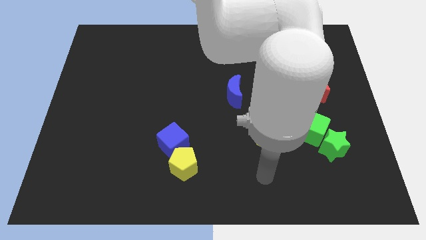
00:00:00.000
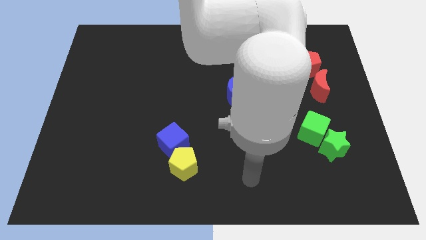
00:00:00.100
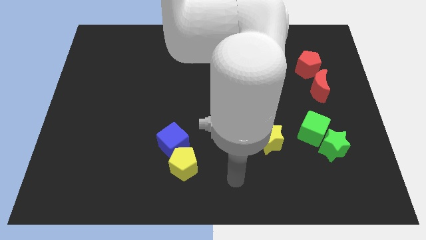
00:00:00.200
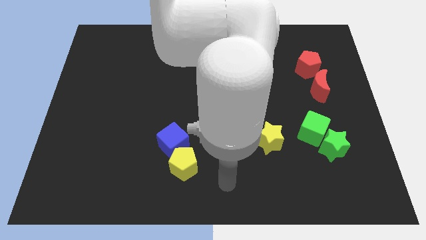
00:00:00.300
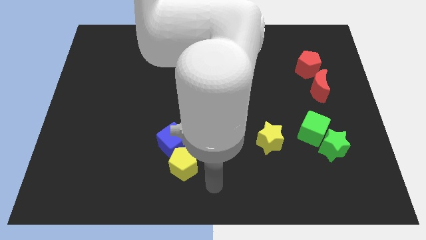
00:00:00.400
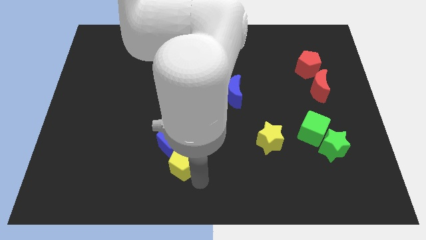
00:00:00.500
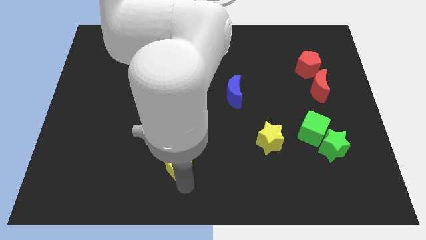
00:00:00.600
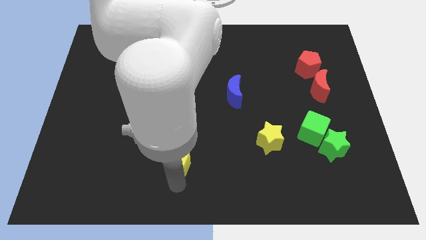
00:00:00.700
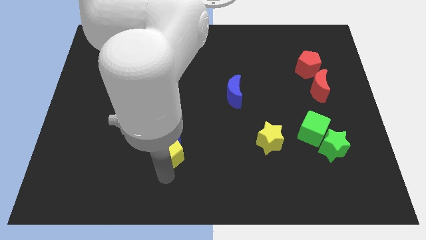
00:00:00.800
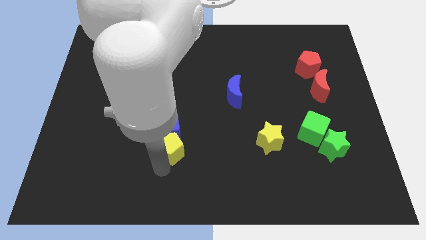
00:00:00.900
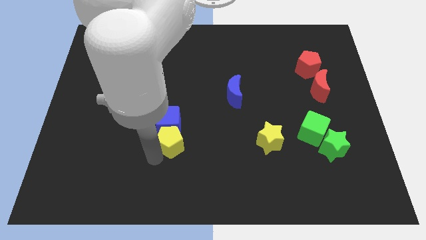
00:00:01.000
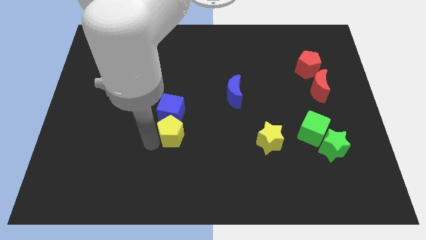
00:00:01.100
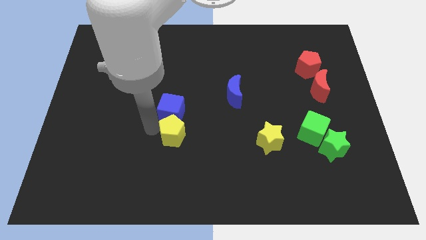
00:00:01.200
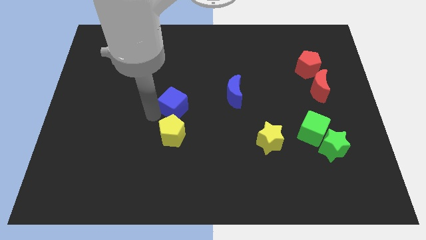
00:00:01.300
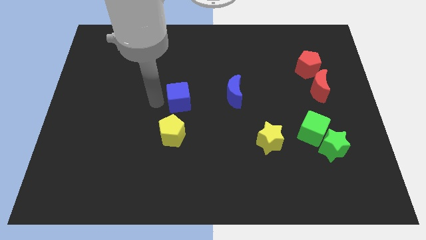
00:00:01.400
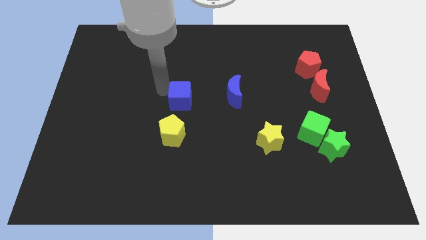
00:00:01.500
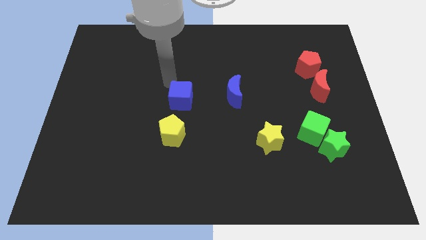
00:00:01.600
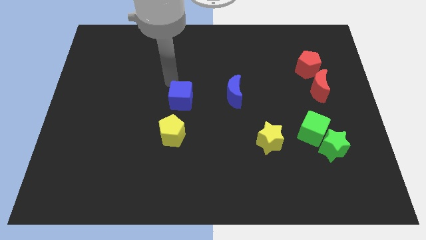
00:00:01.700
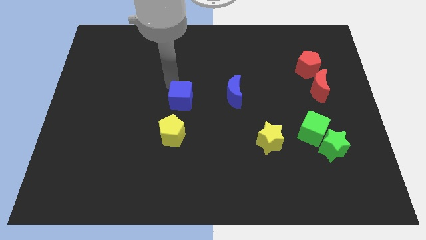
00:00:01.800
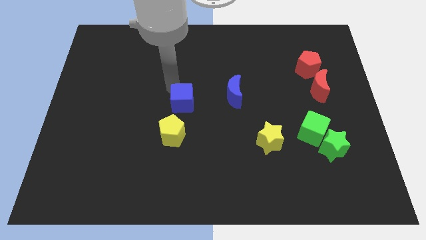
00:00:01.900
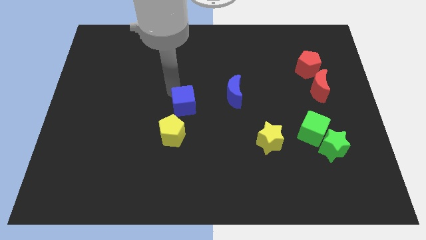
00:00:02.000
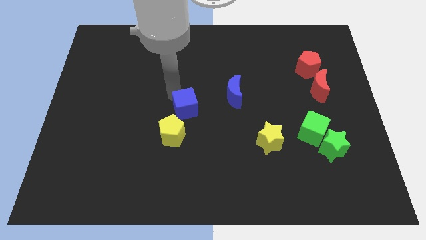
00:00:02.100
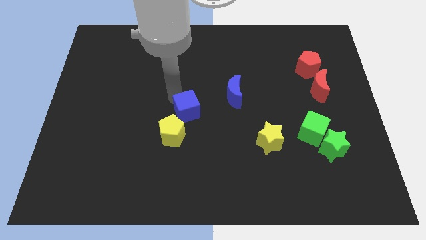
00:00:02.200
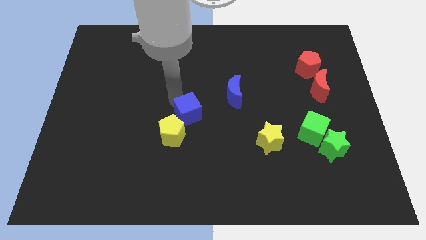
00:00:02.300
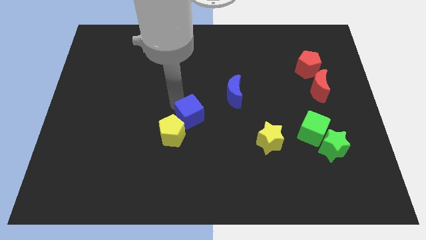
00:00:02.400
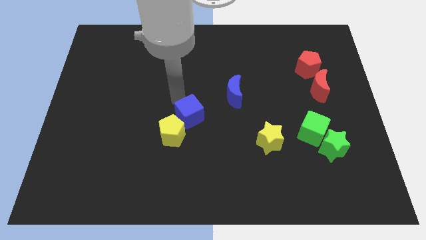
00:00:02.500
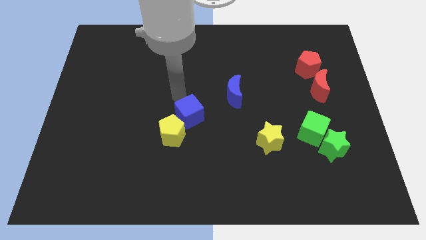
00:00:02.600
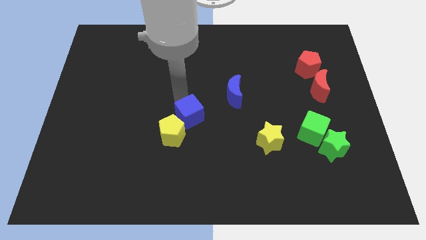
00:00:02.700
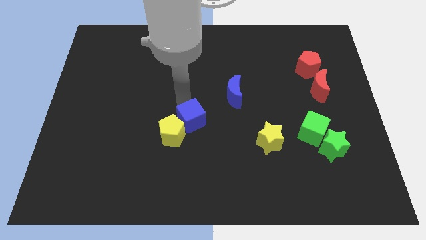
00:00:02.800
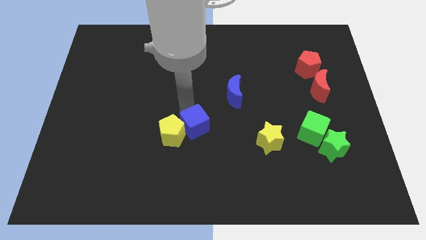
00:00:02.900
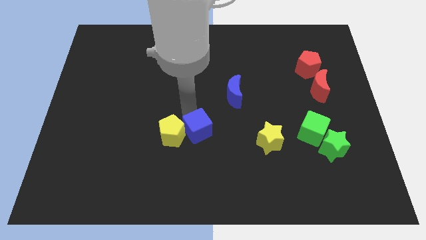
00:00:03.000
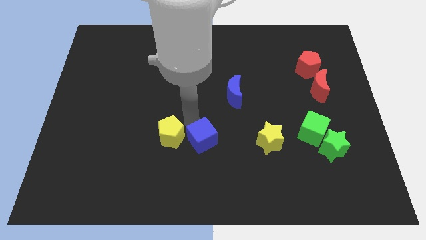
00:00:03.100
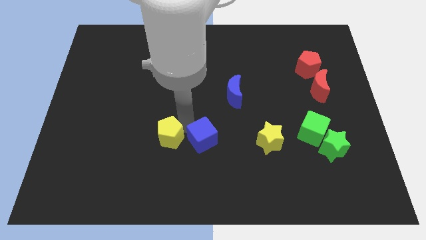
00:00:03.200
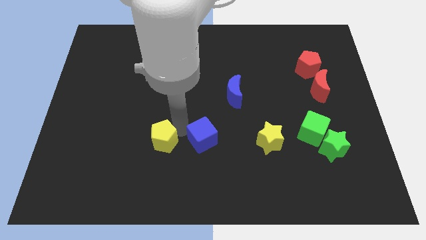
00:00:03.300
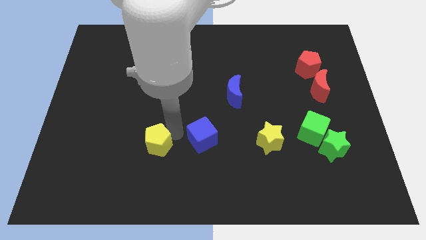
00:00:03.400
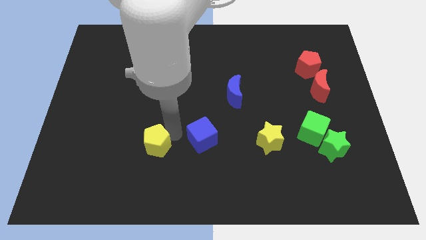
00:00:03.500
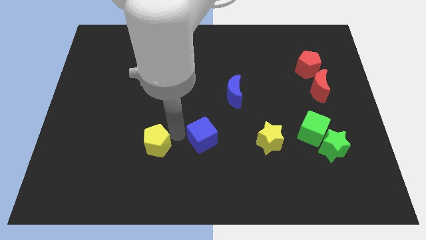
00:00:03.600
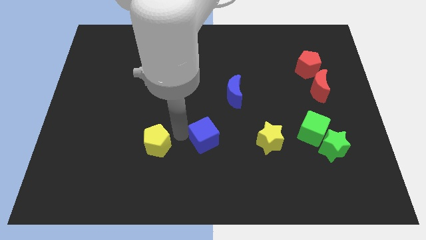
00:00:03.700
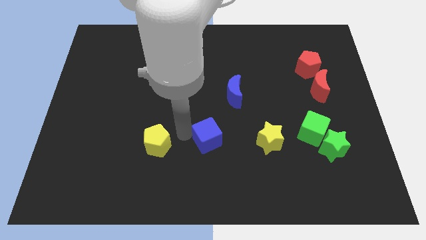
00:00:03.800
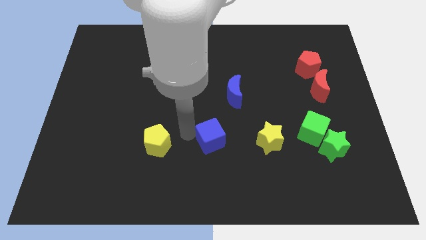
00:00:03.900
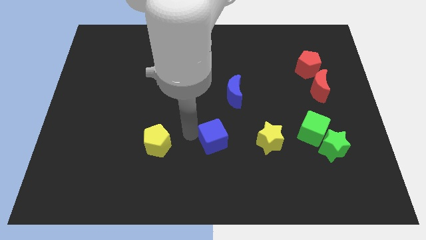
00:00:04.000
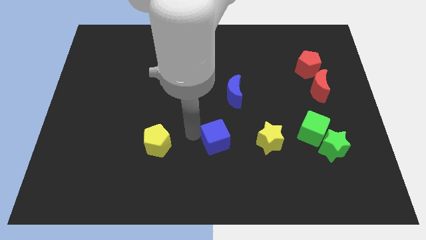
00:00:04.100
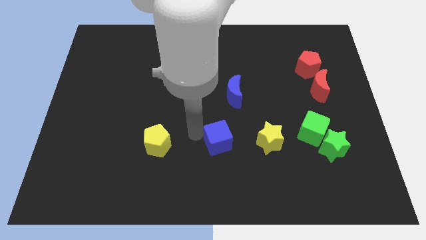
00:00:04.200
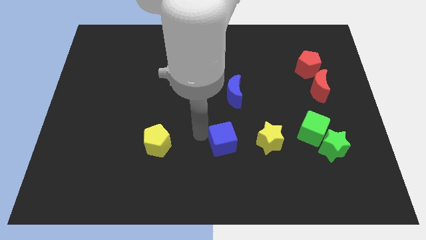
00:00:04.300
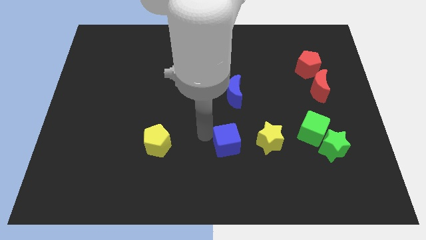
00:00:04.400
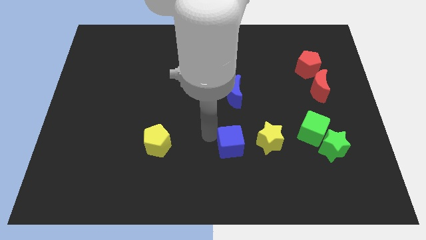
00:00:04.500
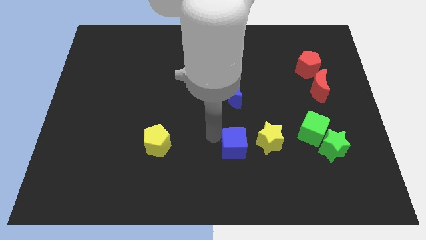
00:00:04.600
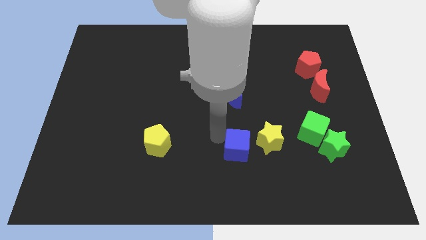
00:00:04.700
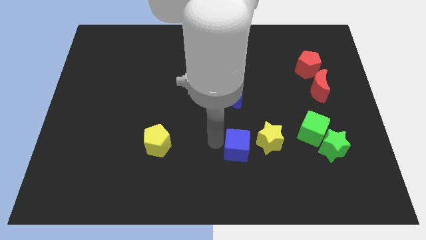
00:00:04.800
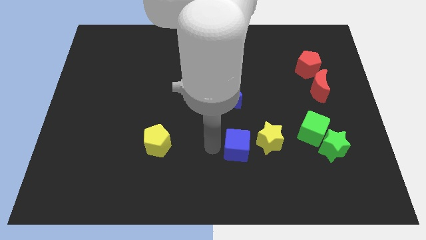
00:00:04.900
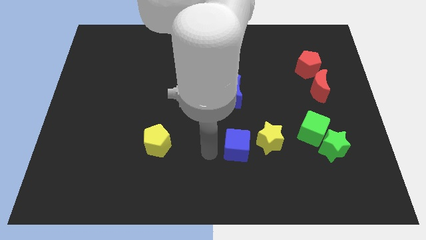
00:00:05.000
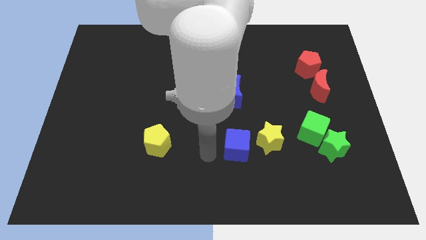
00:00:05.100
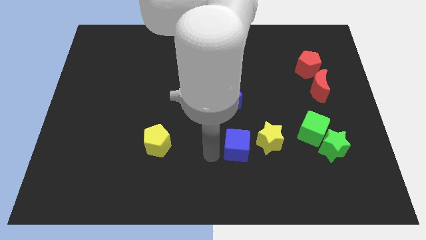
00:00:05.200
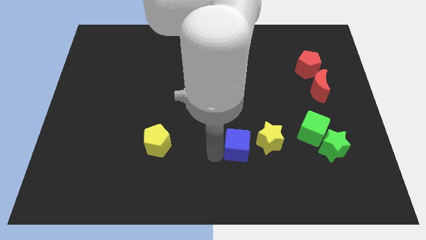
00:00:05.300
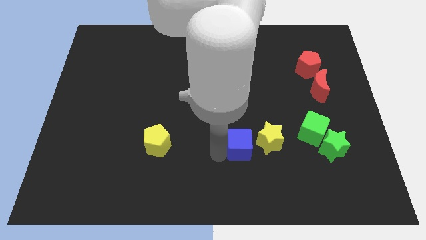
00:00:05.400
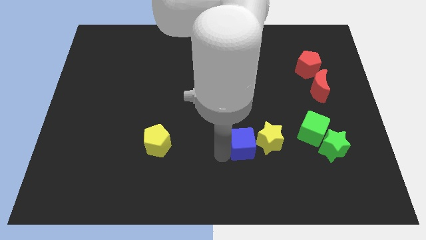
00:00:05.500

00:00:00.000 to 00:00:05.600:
put the blue cube to the yellow star

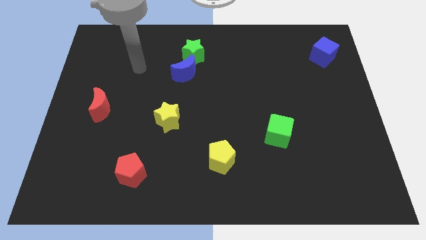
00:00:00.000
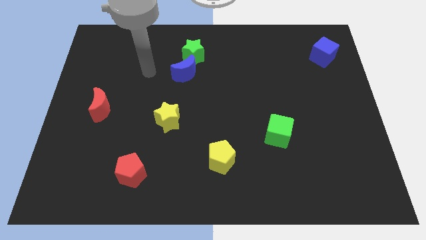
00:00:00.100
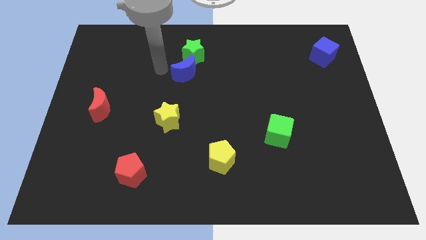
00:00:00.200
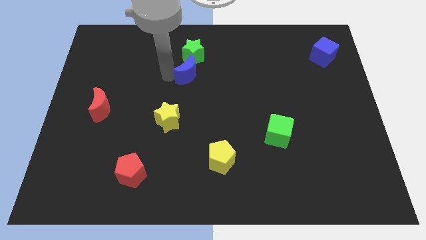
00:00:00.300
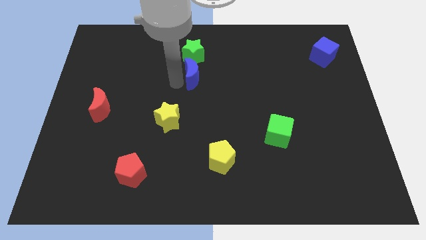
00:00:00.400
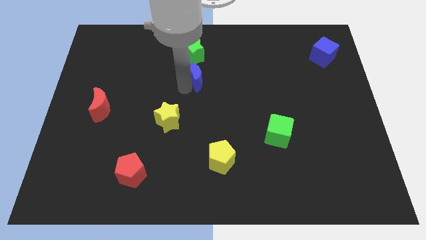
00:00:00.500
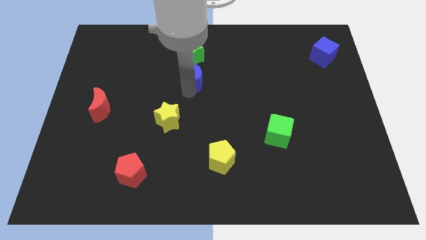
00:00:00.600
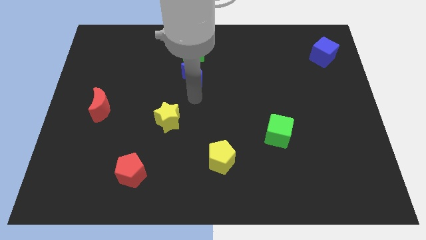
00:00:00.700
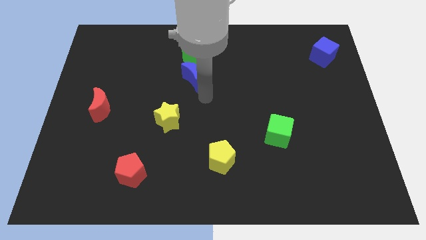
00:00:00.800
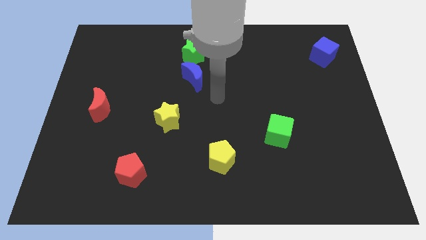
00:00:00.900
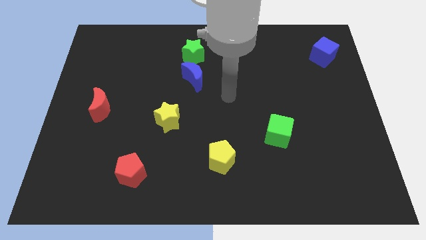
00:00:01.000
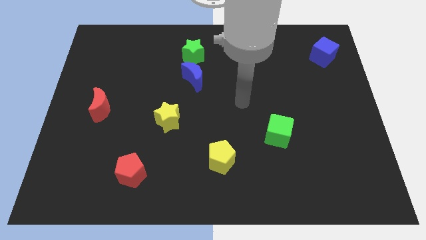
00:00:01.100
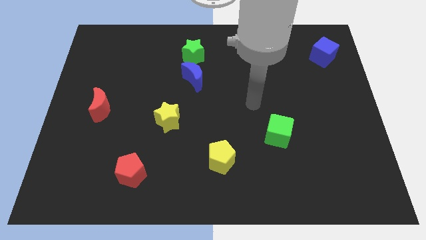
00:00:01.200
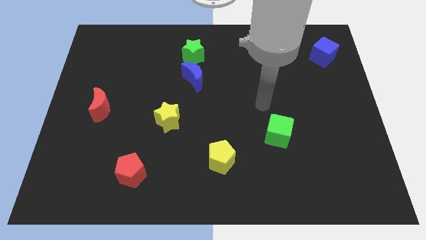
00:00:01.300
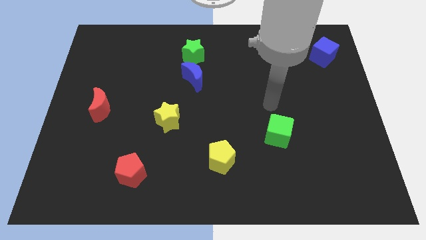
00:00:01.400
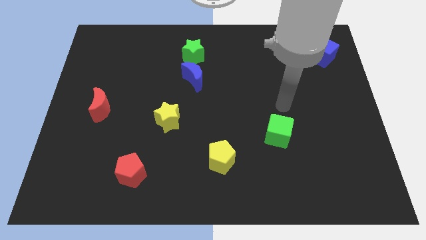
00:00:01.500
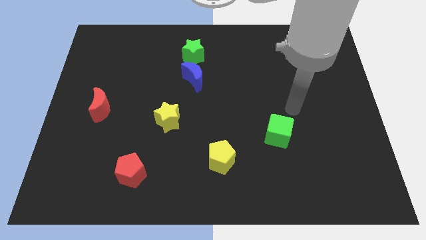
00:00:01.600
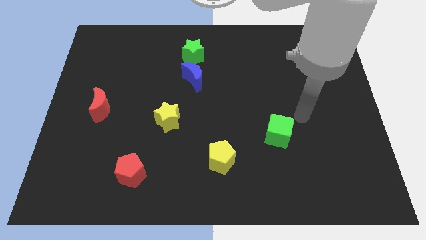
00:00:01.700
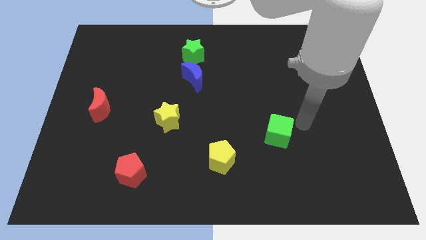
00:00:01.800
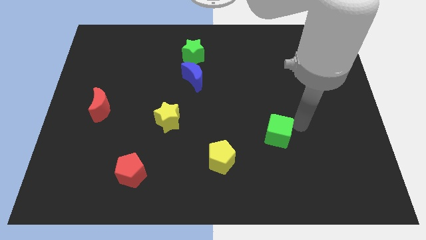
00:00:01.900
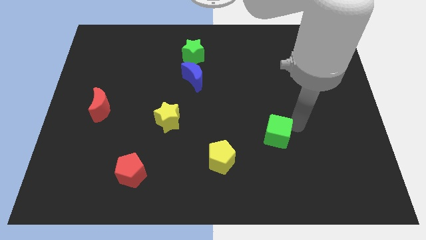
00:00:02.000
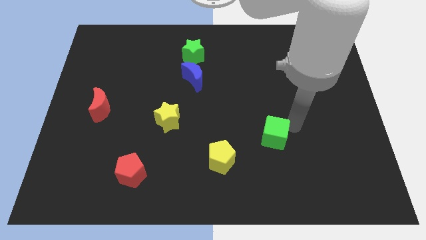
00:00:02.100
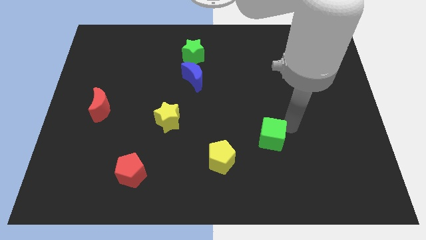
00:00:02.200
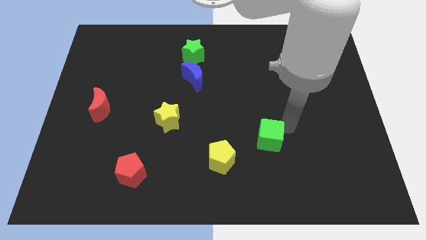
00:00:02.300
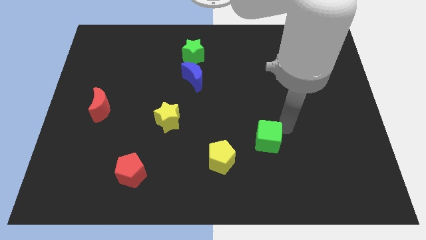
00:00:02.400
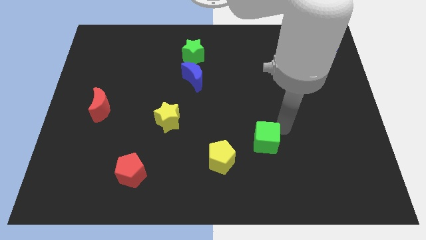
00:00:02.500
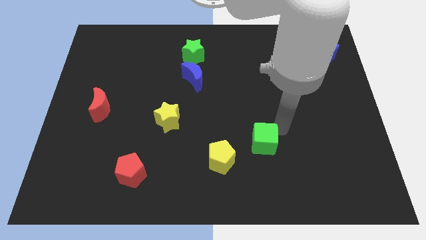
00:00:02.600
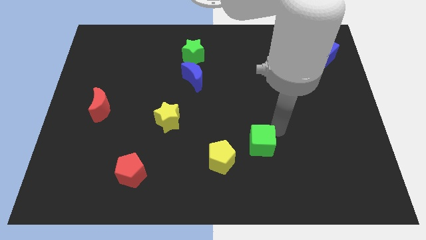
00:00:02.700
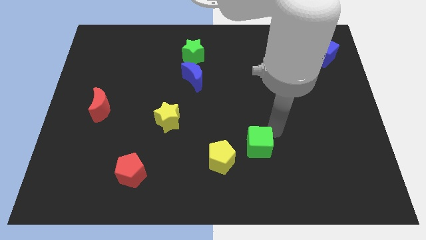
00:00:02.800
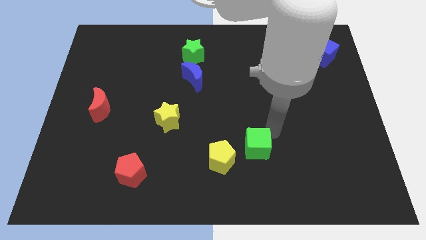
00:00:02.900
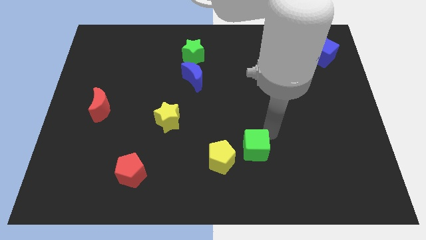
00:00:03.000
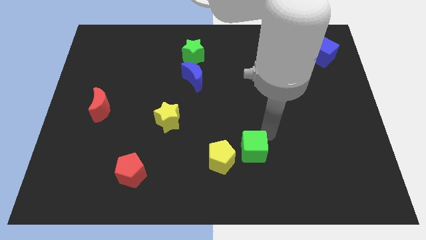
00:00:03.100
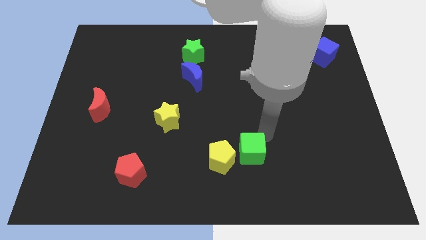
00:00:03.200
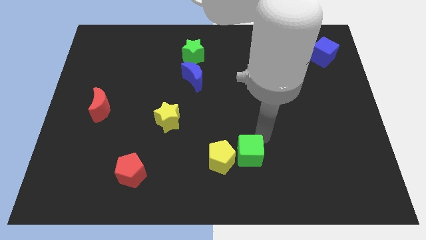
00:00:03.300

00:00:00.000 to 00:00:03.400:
move the green cube to the yellow pentagon
